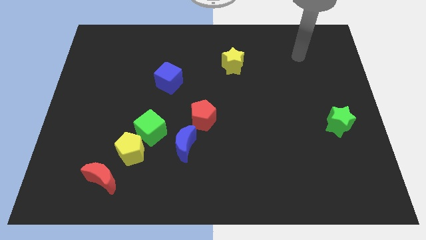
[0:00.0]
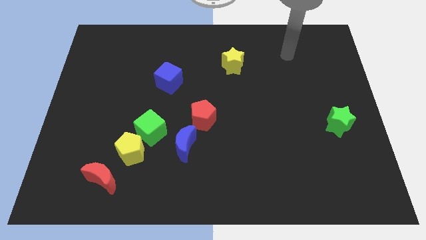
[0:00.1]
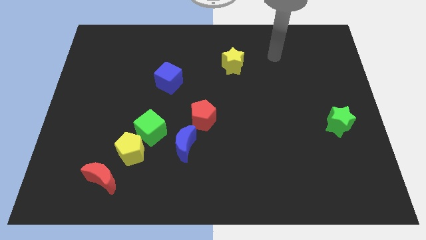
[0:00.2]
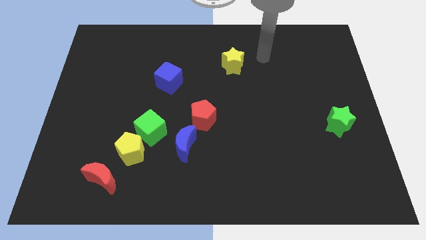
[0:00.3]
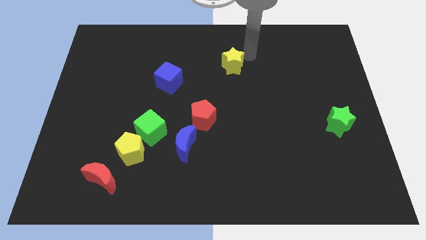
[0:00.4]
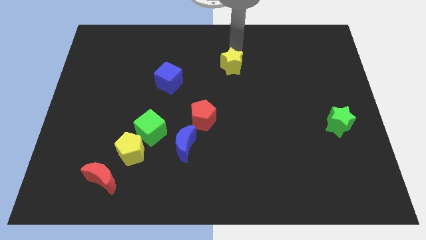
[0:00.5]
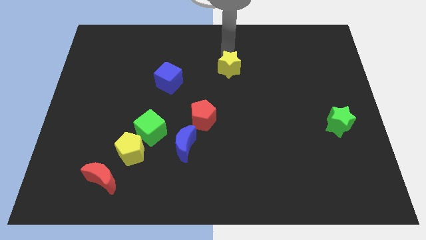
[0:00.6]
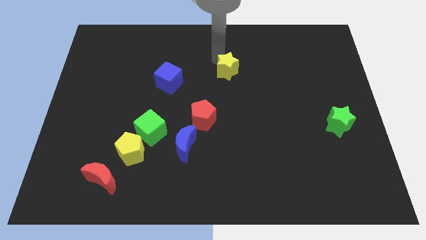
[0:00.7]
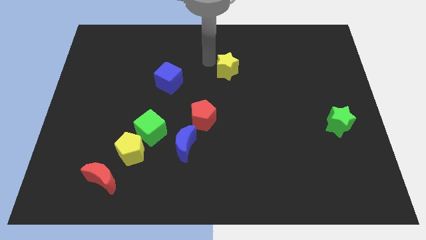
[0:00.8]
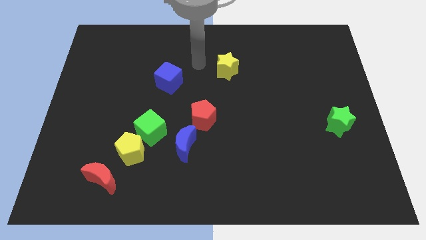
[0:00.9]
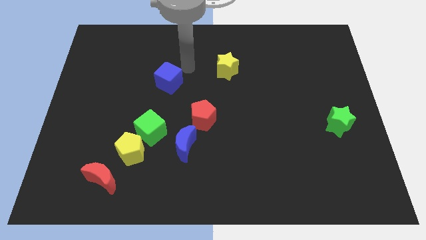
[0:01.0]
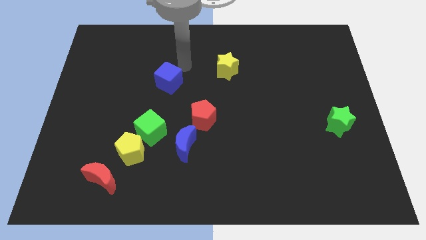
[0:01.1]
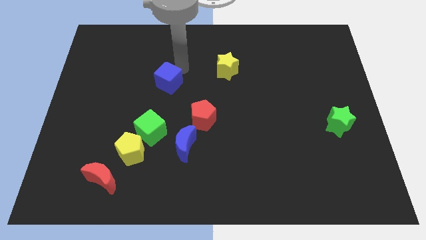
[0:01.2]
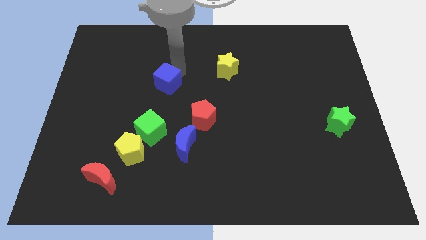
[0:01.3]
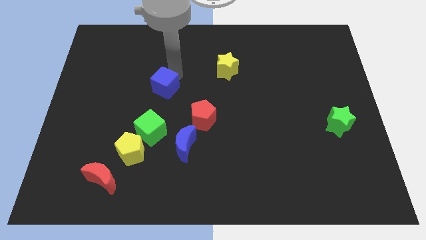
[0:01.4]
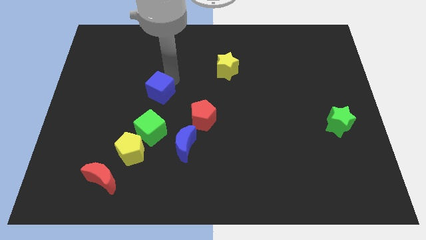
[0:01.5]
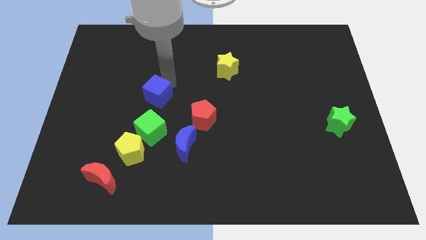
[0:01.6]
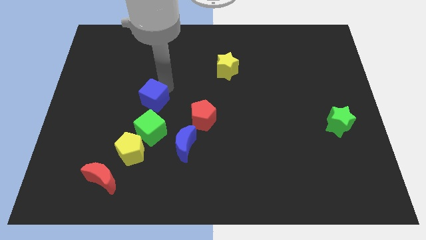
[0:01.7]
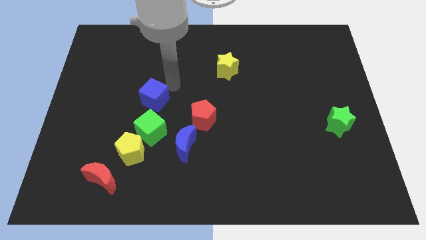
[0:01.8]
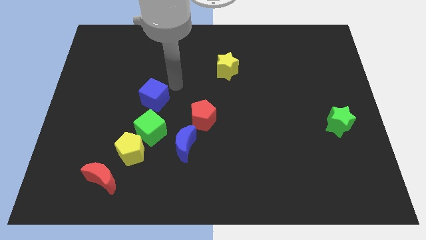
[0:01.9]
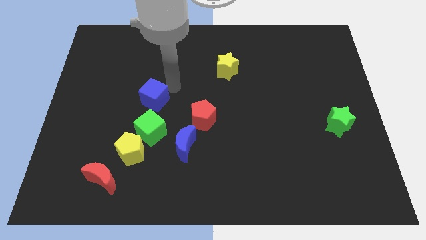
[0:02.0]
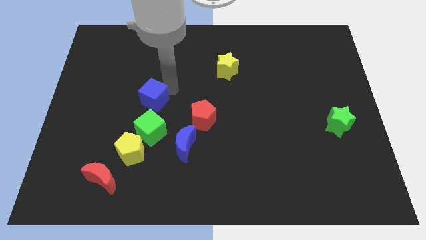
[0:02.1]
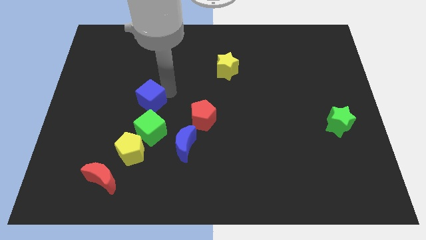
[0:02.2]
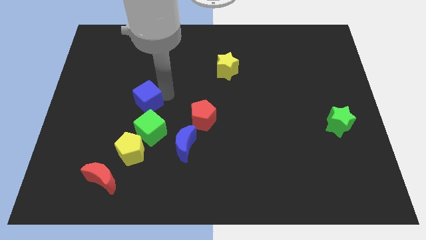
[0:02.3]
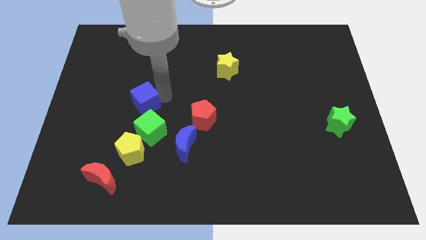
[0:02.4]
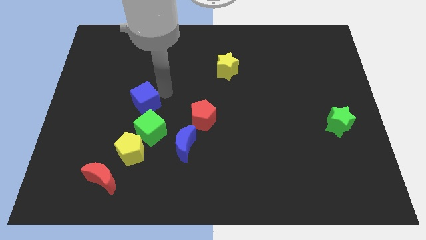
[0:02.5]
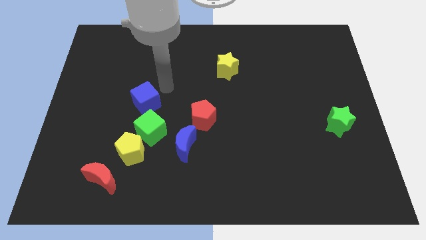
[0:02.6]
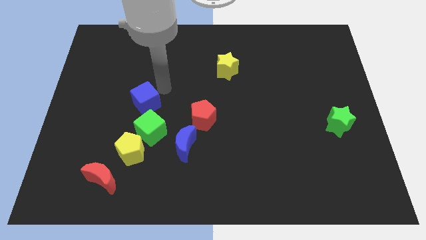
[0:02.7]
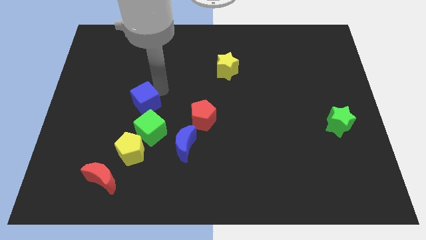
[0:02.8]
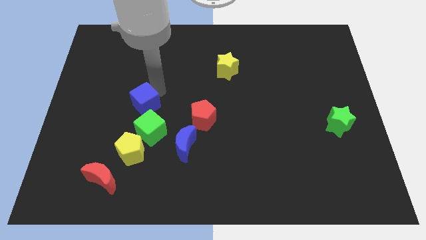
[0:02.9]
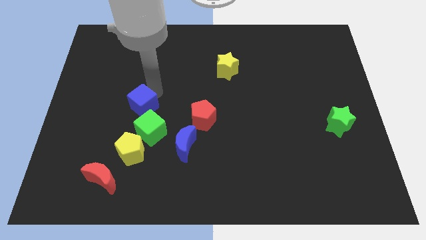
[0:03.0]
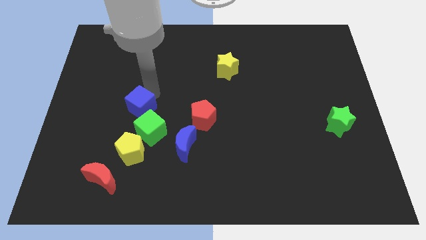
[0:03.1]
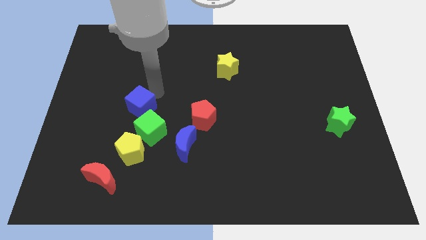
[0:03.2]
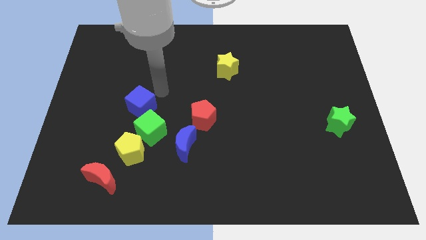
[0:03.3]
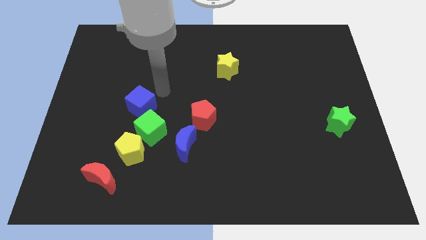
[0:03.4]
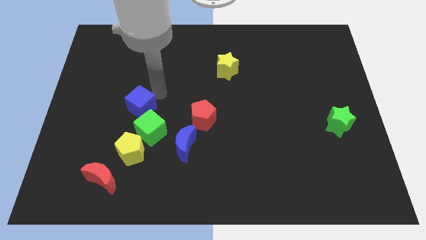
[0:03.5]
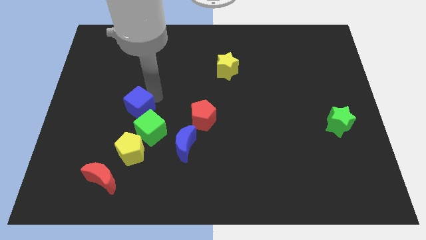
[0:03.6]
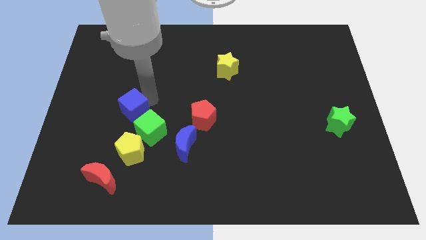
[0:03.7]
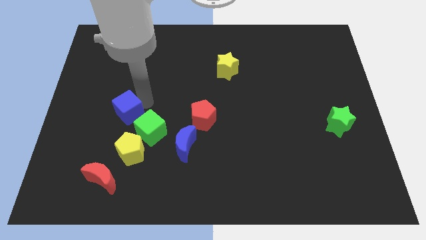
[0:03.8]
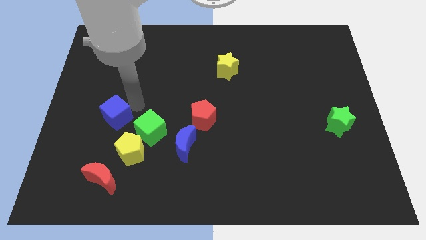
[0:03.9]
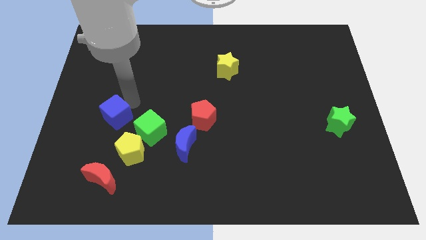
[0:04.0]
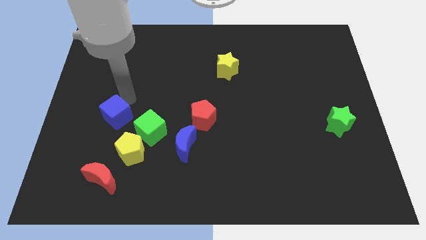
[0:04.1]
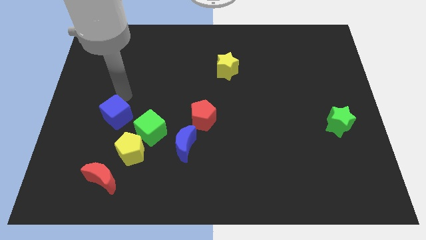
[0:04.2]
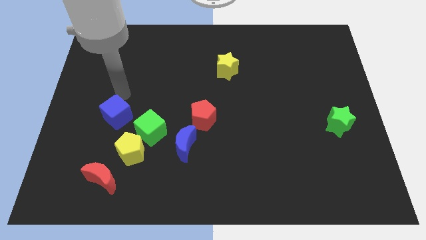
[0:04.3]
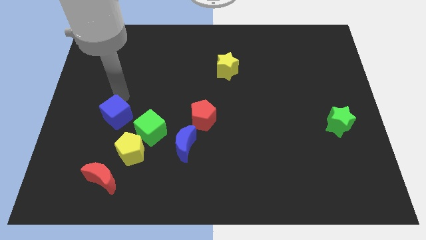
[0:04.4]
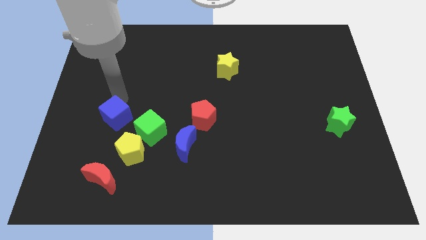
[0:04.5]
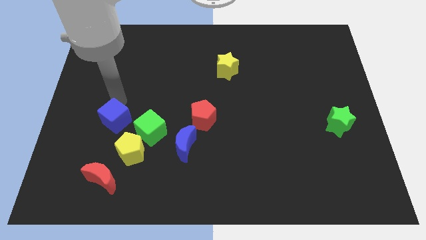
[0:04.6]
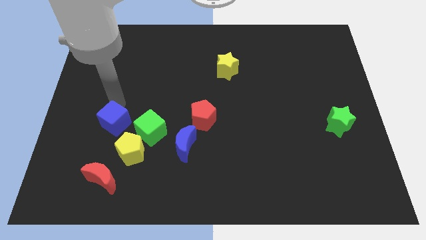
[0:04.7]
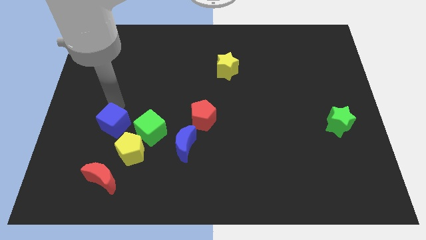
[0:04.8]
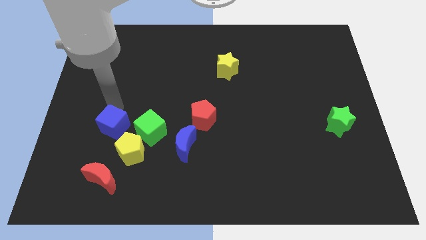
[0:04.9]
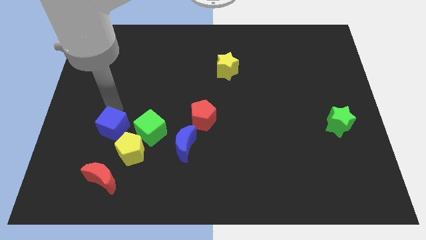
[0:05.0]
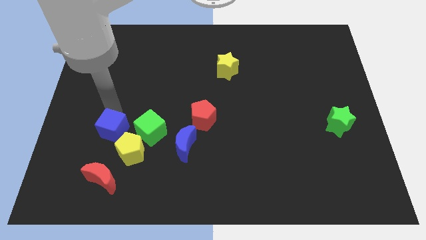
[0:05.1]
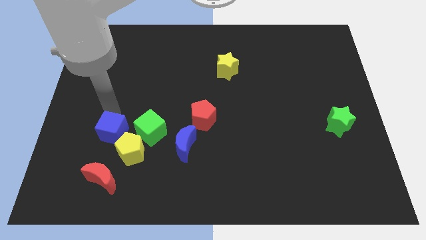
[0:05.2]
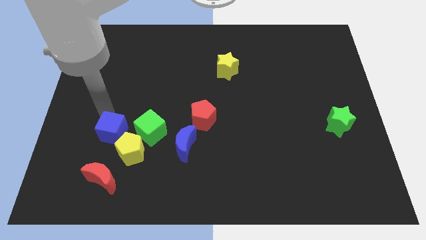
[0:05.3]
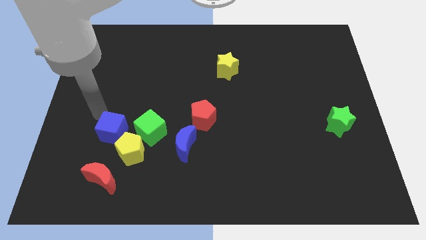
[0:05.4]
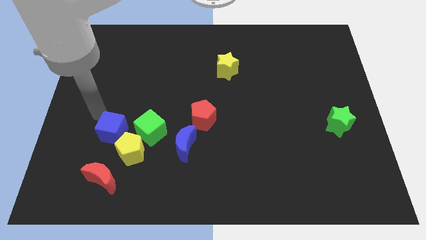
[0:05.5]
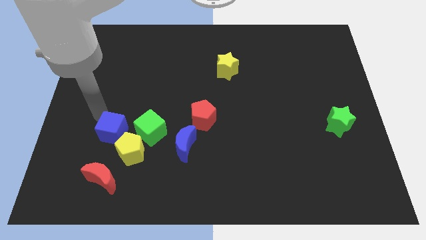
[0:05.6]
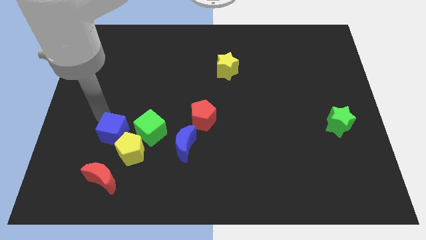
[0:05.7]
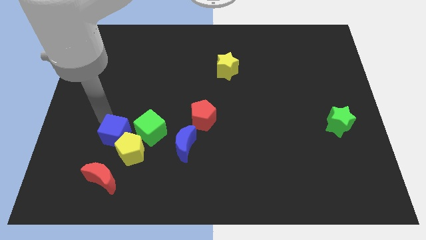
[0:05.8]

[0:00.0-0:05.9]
slide the blue cube close to the yellow pentagon

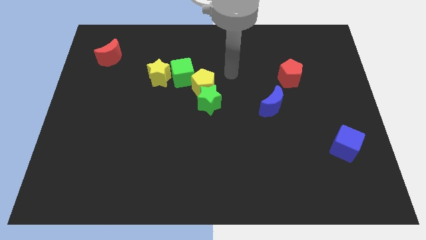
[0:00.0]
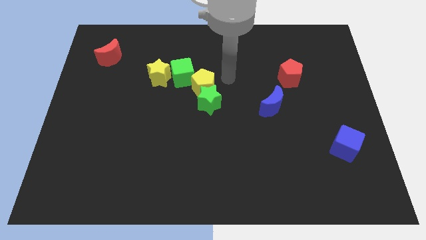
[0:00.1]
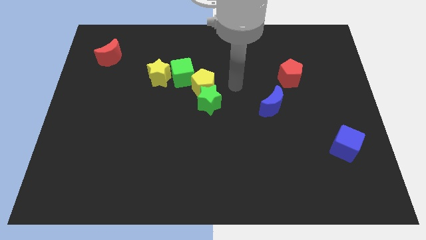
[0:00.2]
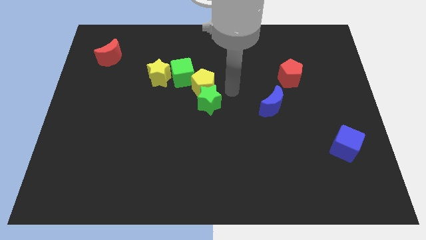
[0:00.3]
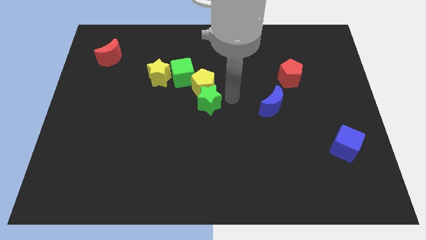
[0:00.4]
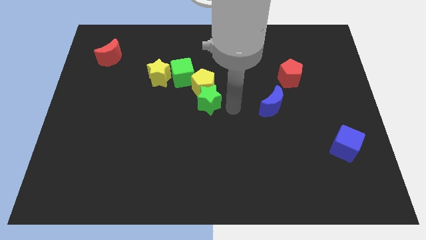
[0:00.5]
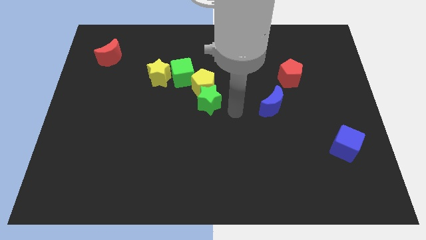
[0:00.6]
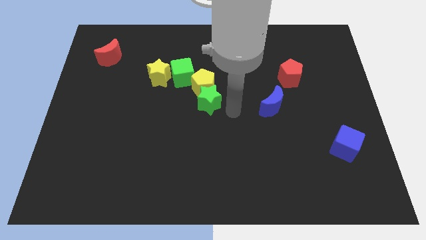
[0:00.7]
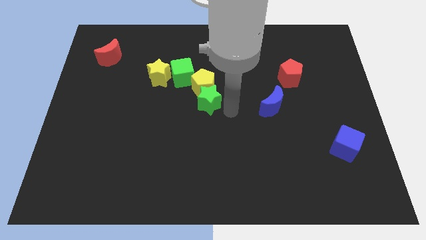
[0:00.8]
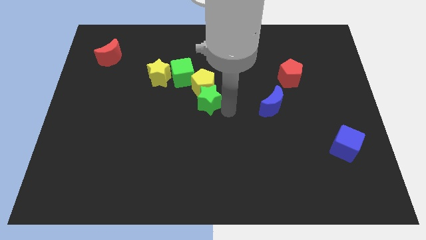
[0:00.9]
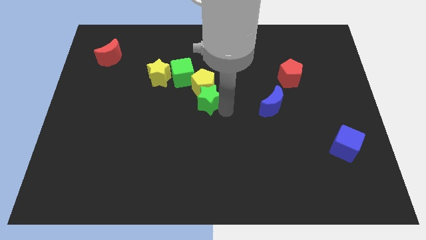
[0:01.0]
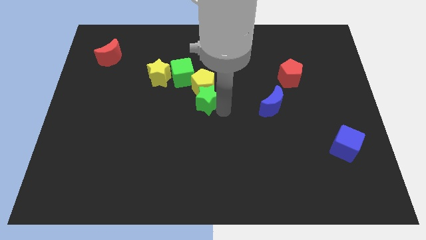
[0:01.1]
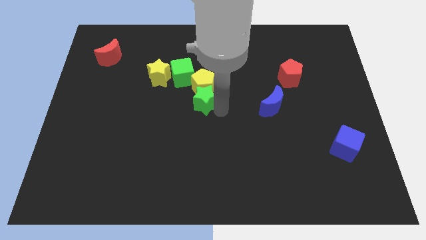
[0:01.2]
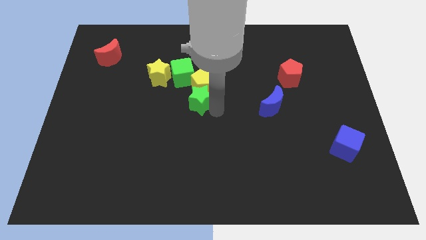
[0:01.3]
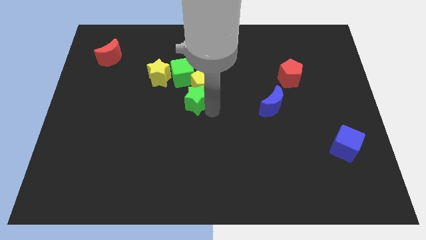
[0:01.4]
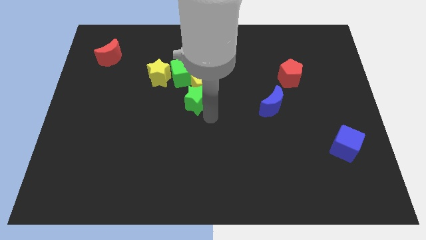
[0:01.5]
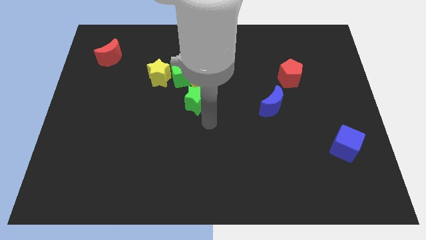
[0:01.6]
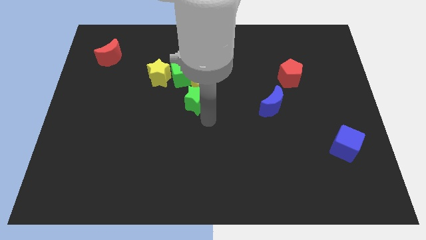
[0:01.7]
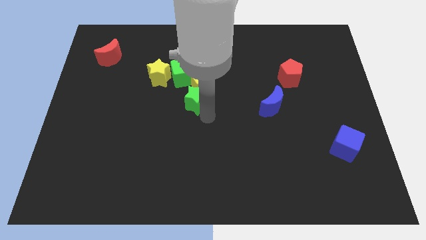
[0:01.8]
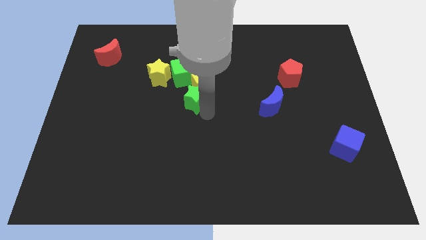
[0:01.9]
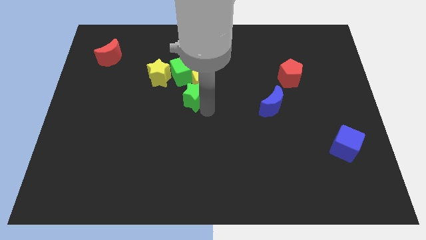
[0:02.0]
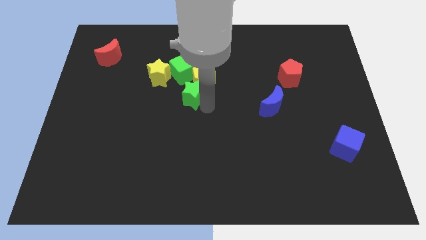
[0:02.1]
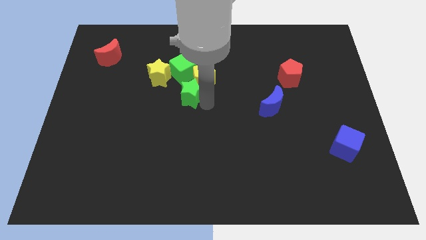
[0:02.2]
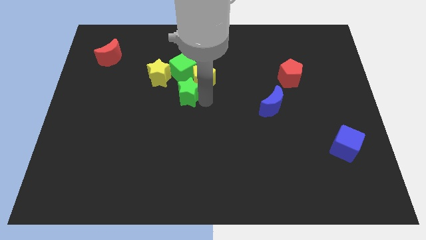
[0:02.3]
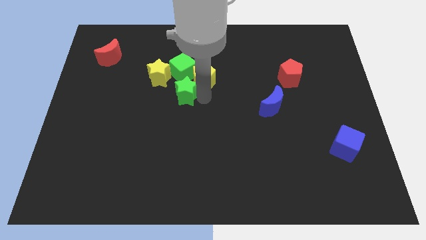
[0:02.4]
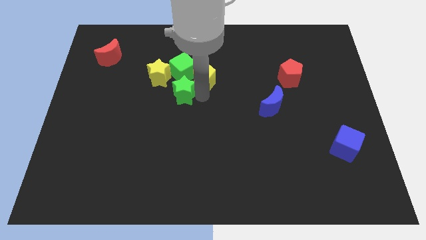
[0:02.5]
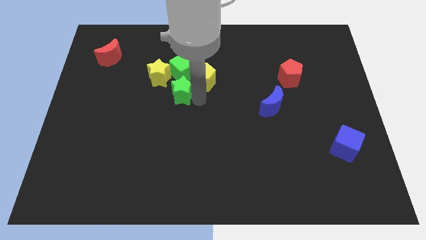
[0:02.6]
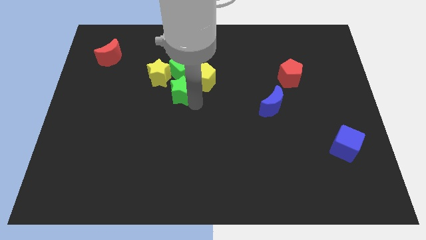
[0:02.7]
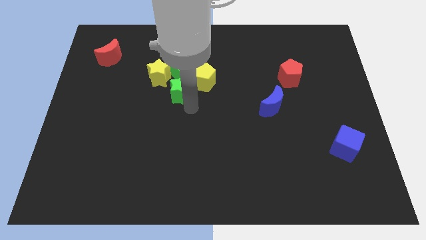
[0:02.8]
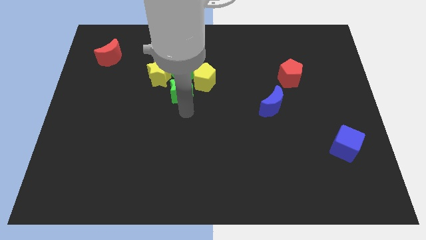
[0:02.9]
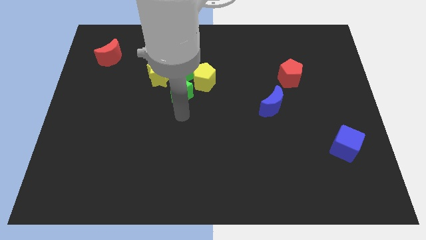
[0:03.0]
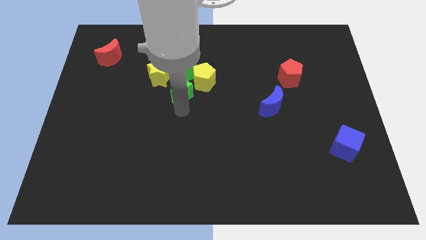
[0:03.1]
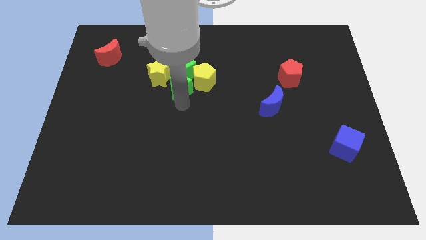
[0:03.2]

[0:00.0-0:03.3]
push the green star towards the green cube
